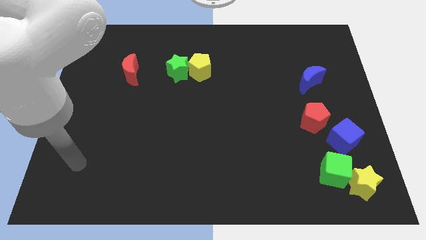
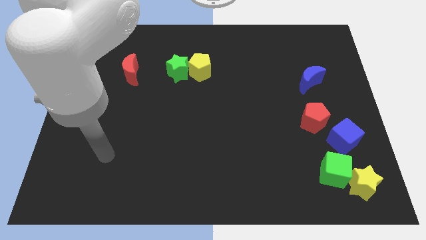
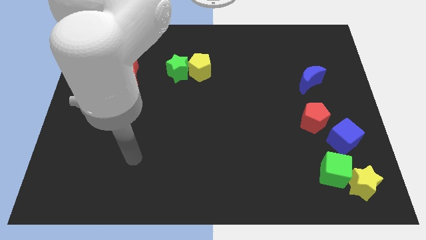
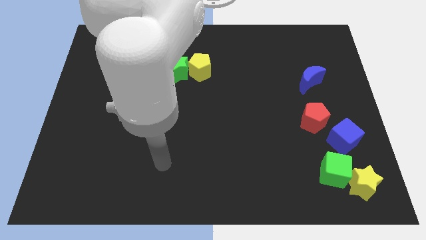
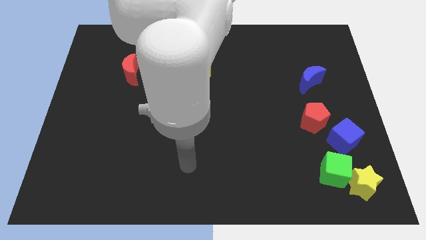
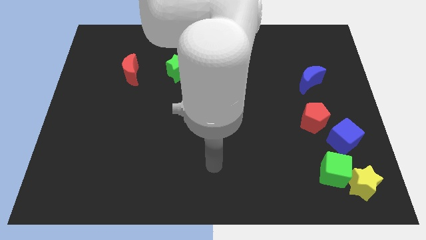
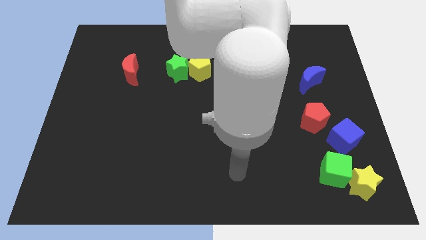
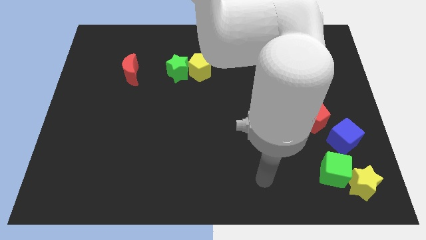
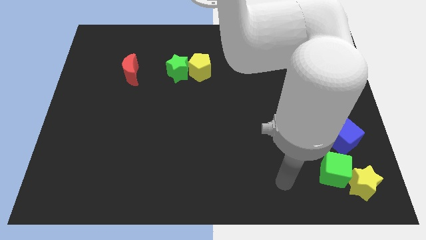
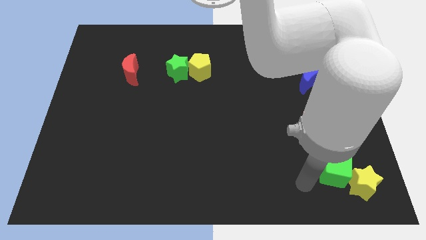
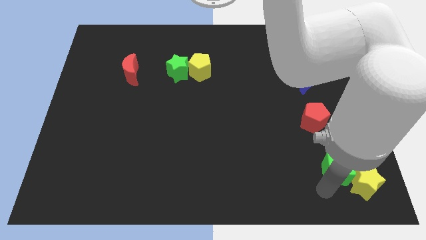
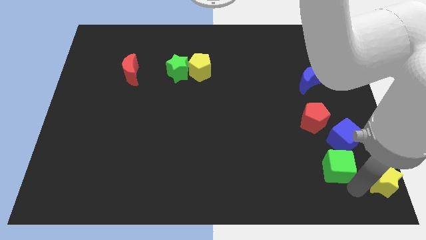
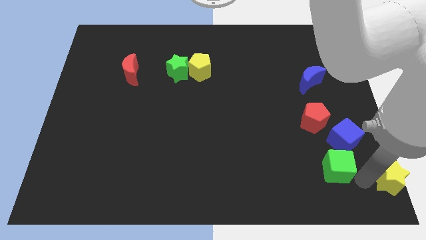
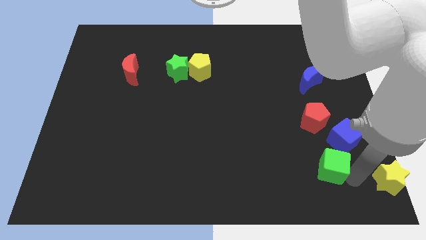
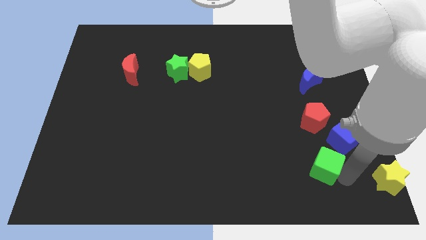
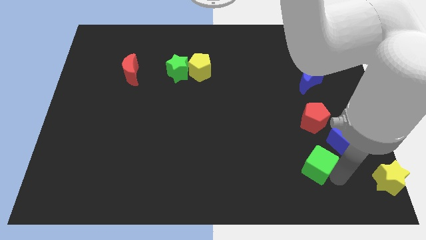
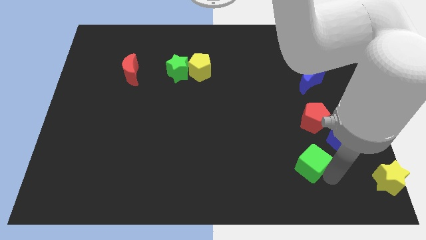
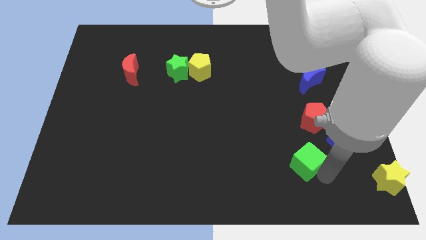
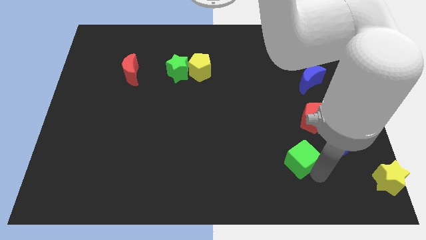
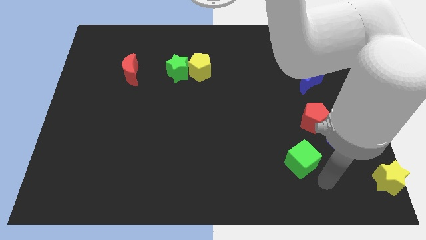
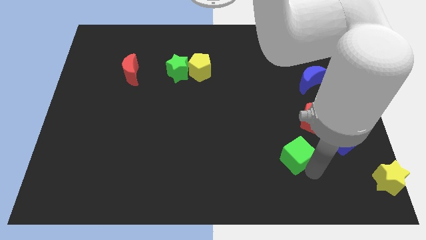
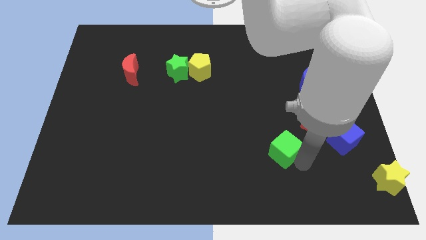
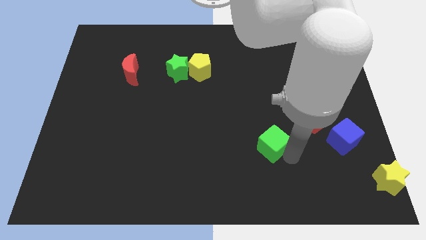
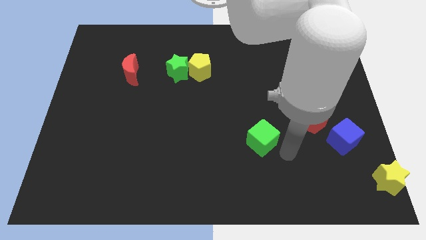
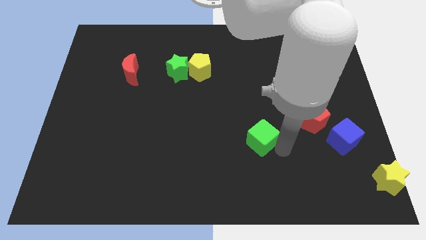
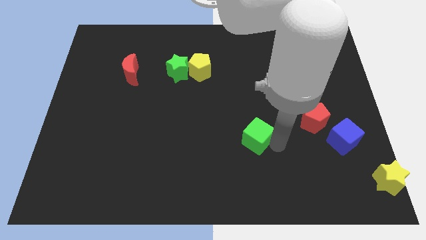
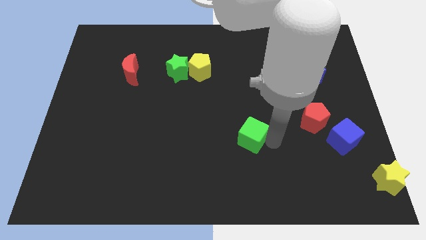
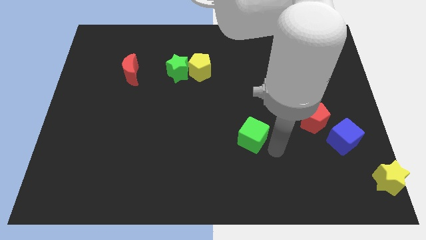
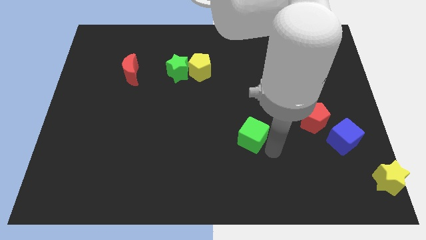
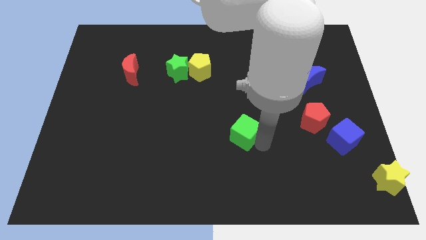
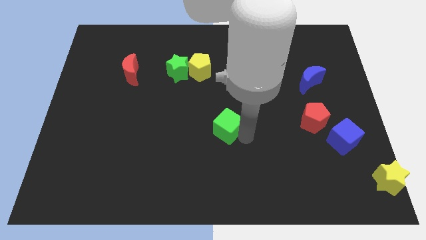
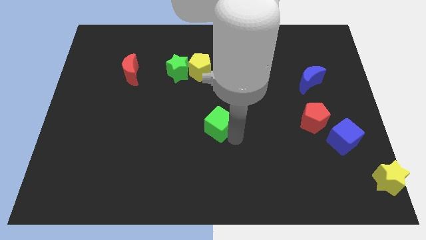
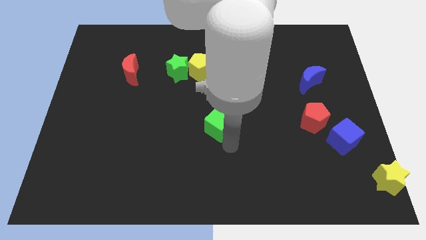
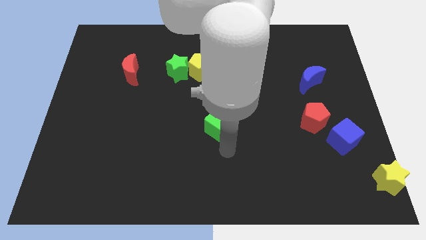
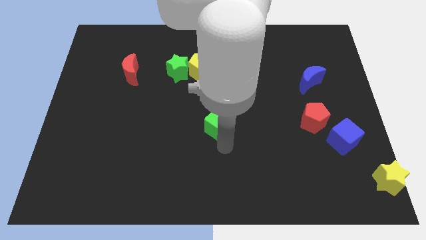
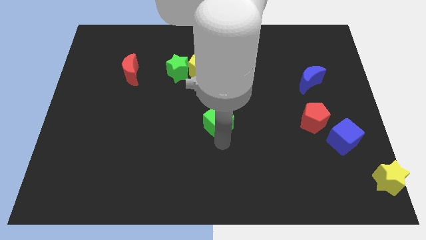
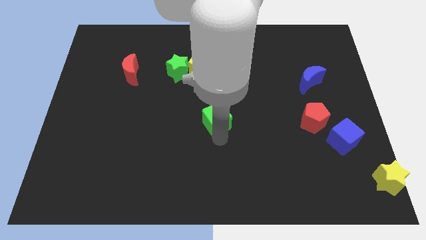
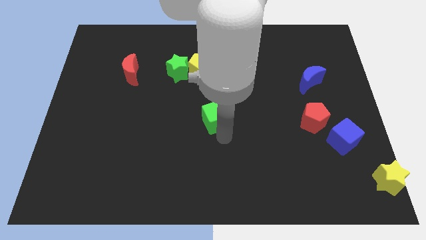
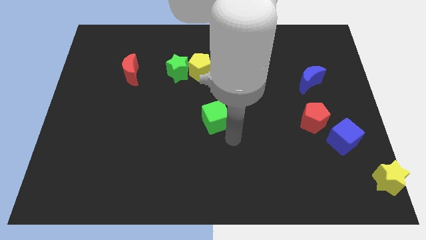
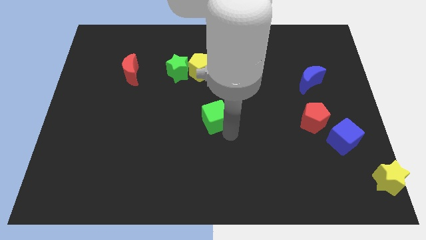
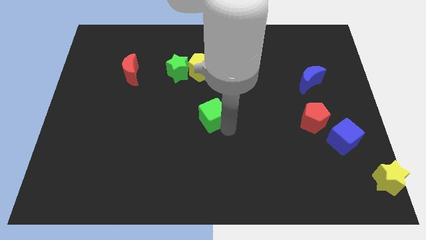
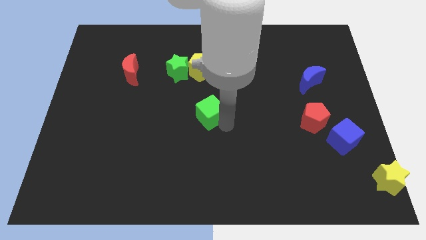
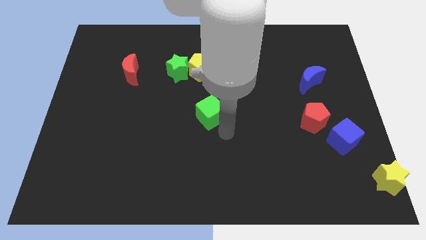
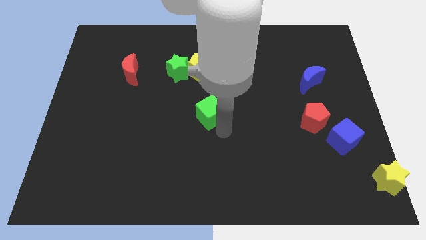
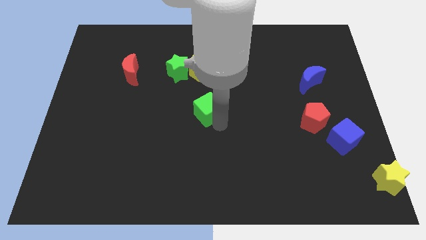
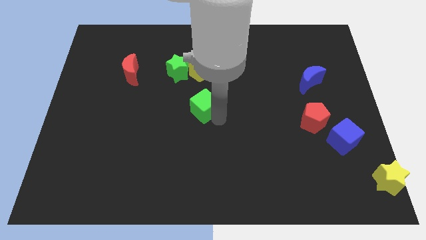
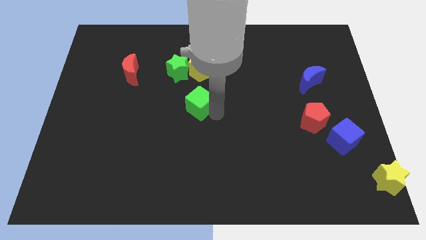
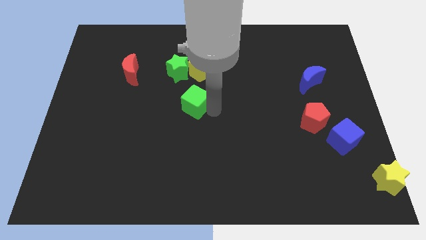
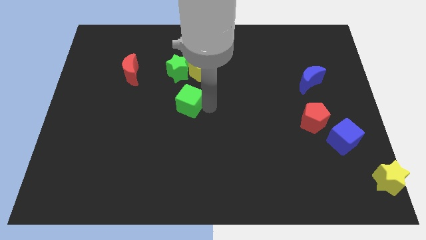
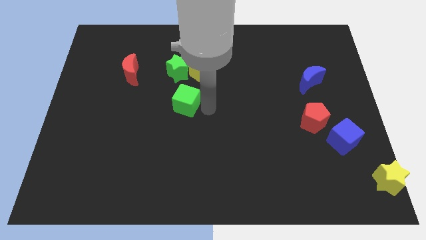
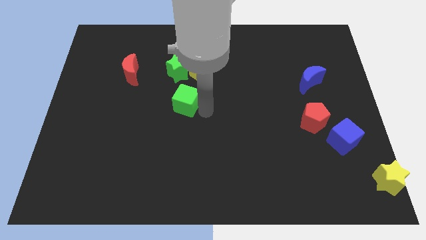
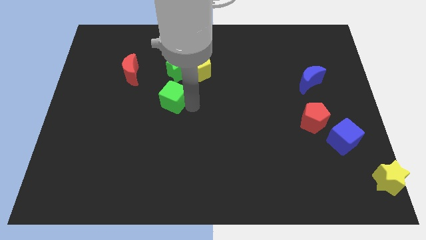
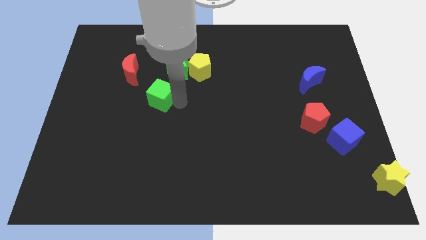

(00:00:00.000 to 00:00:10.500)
push the green cube diagonally down and to the right of the red moon

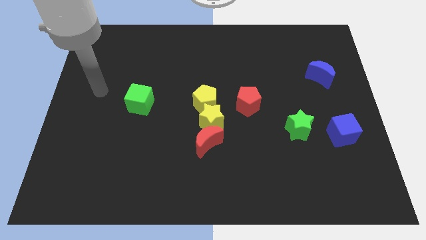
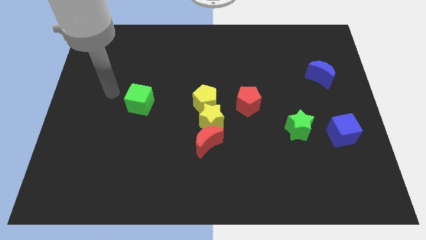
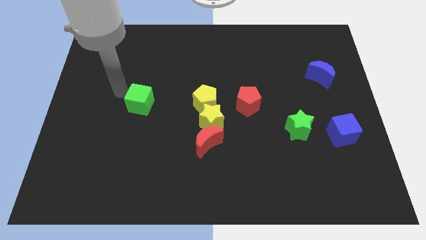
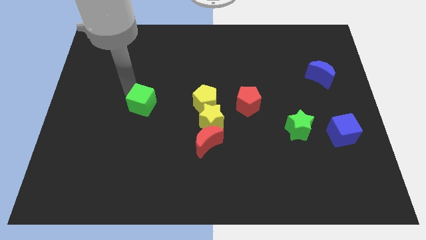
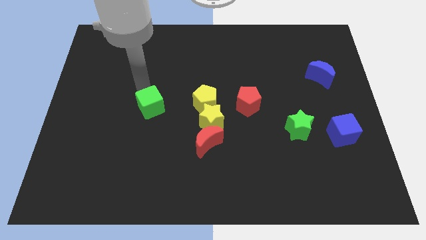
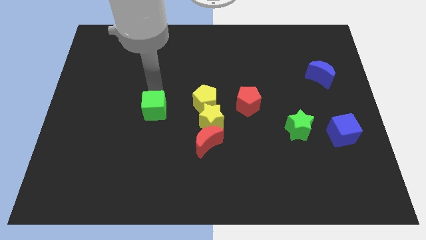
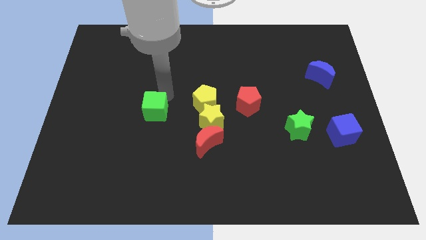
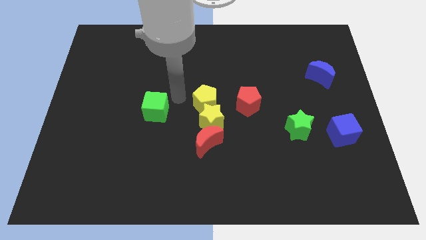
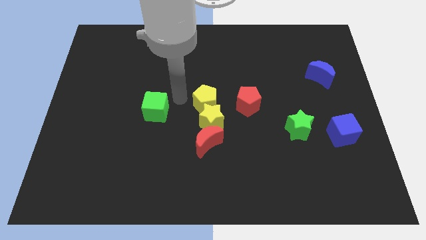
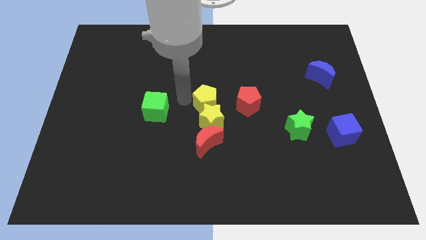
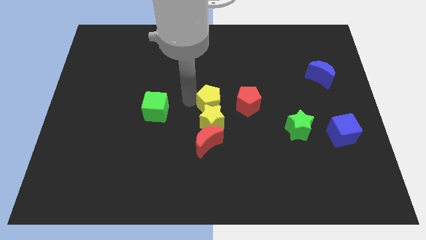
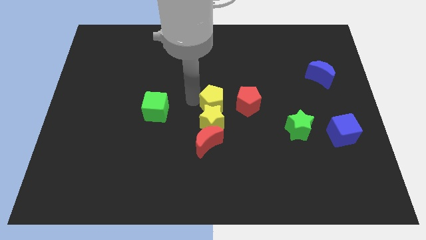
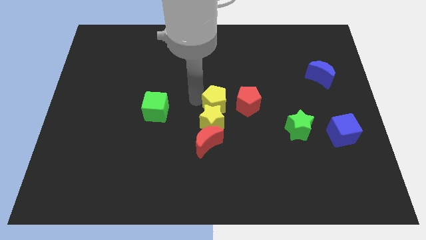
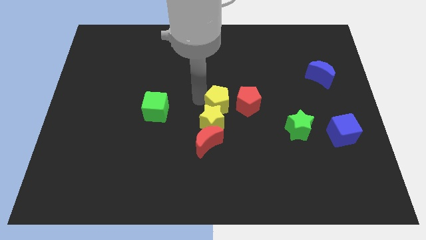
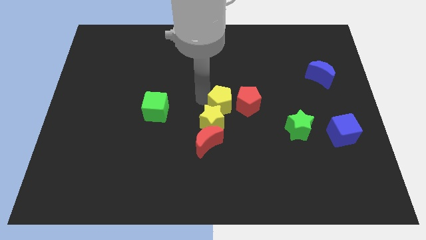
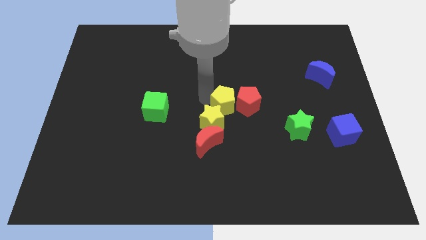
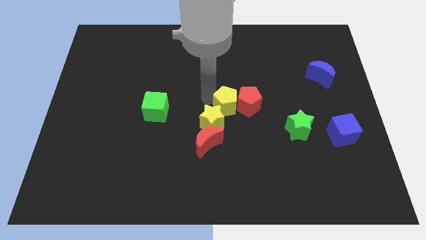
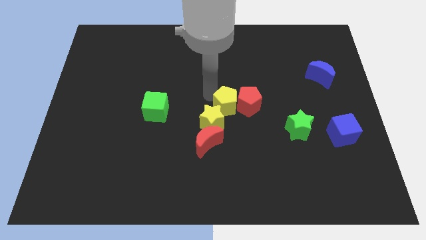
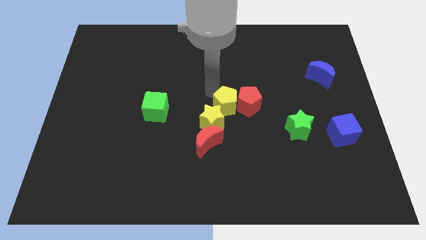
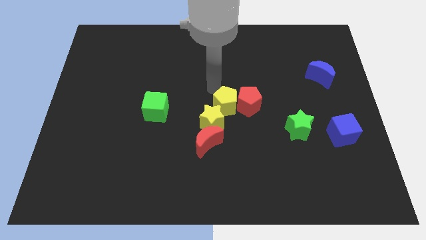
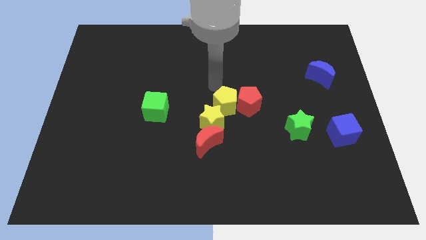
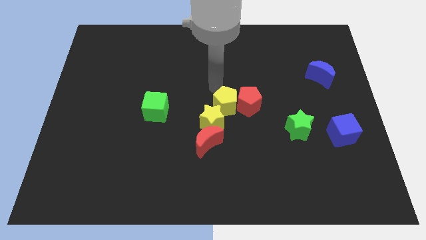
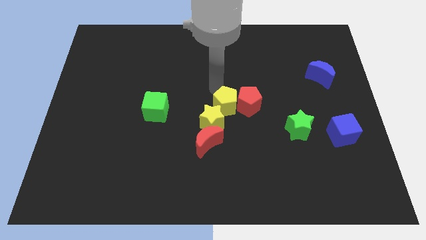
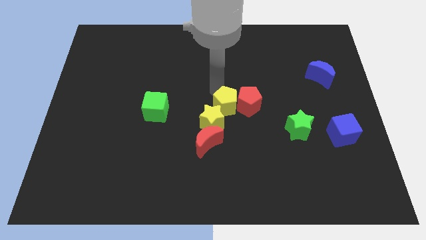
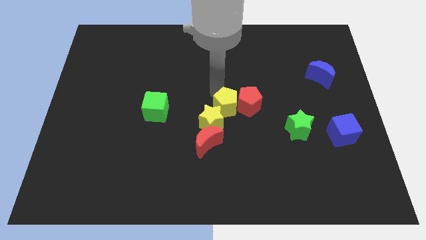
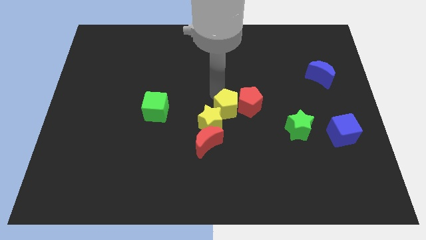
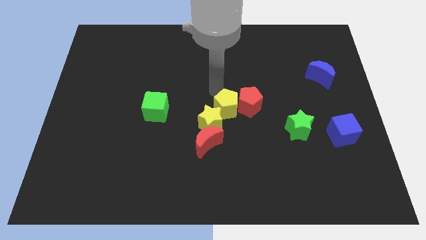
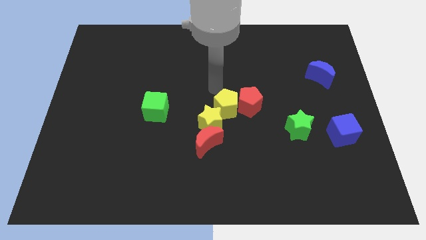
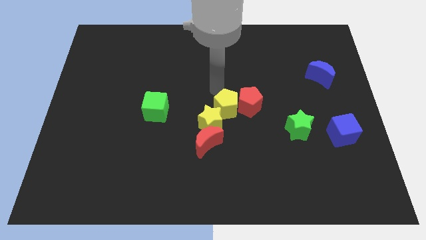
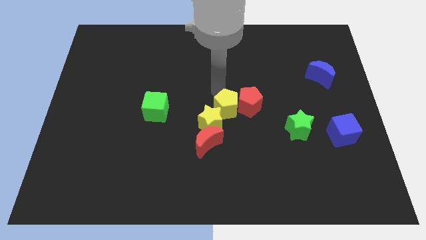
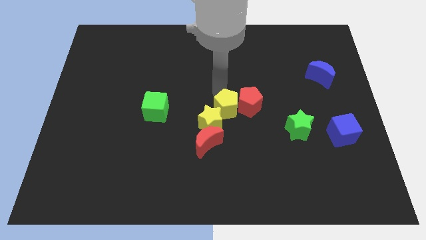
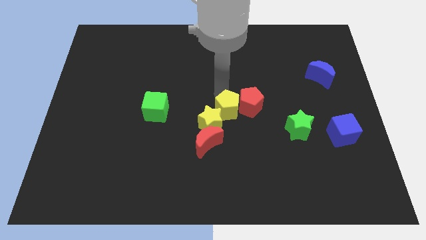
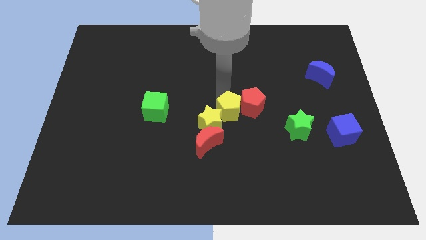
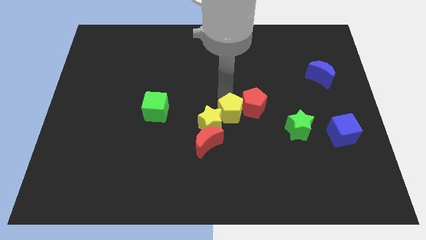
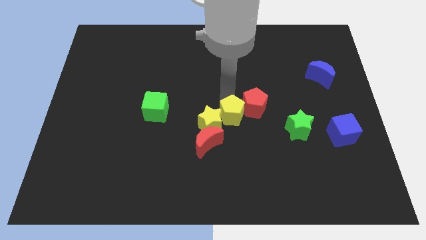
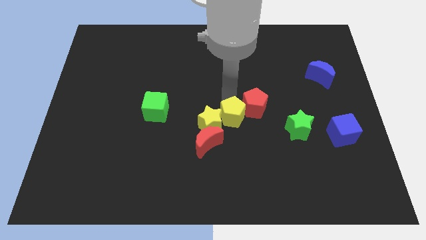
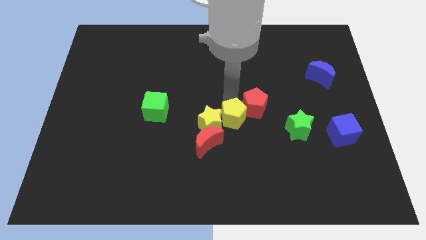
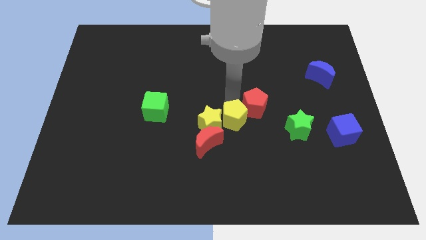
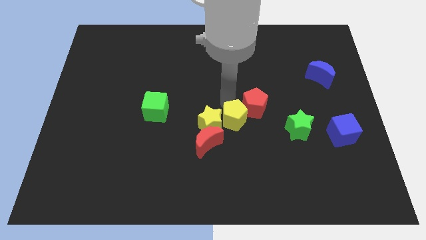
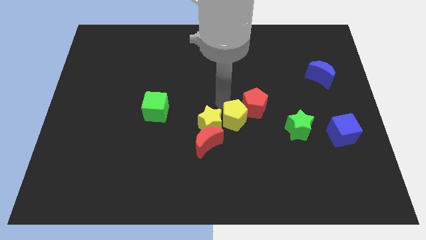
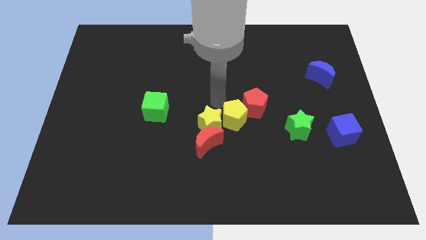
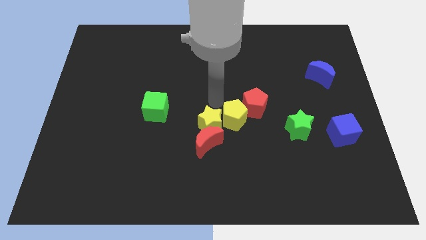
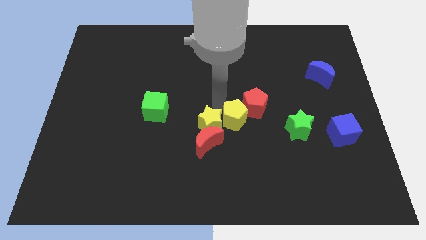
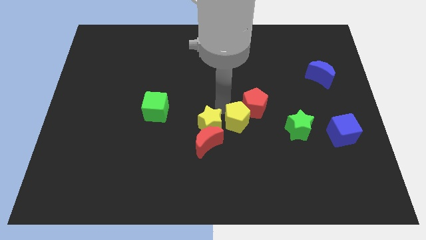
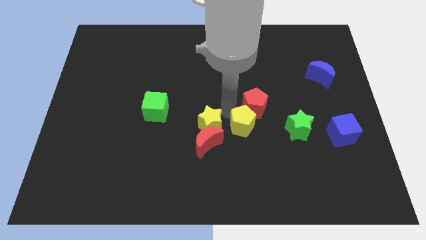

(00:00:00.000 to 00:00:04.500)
slide the yellow pentagon right of the red moon
